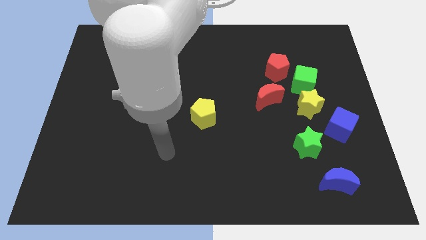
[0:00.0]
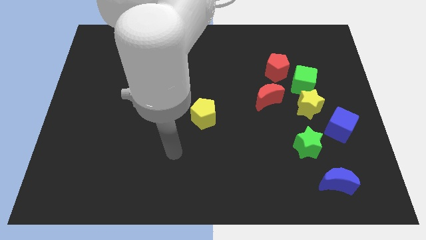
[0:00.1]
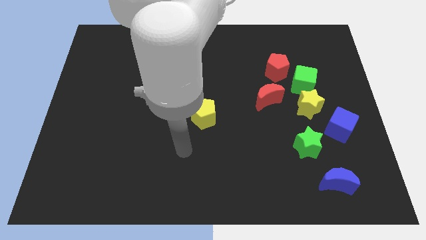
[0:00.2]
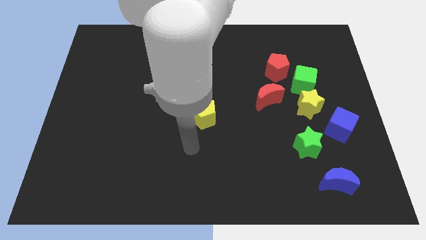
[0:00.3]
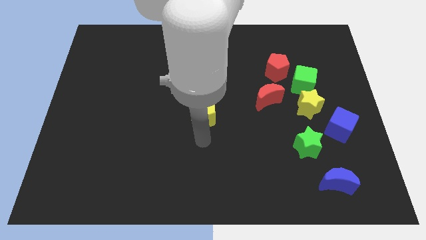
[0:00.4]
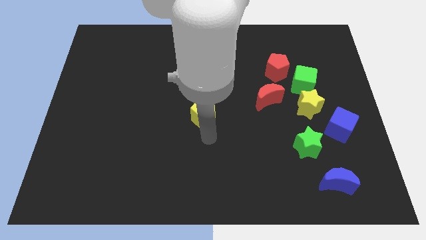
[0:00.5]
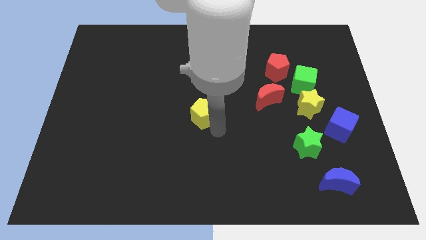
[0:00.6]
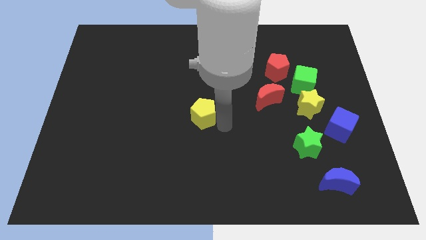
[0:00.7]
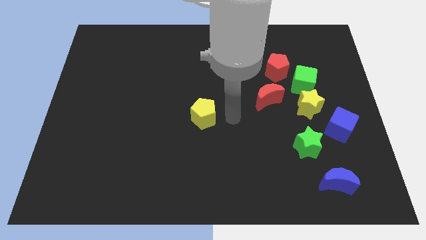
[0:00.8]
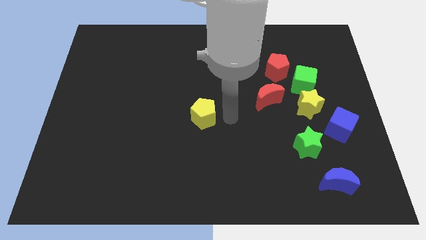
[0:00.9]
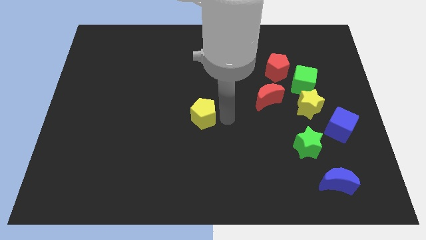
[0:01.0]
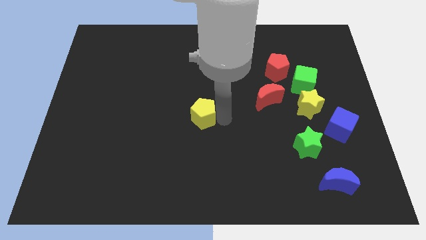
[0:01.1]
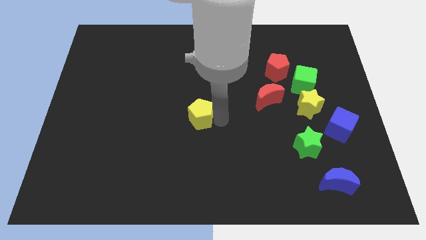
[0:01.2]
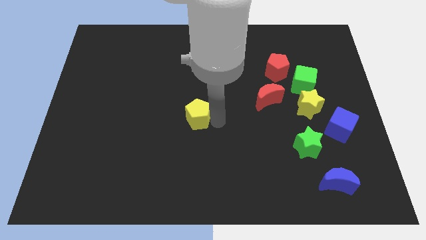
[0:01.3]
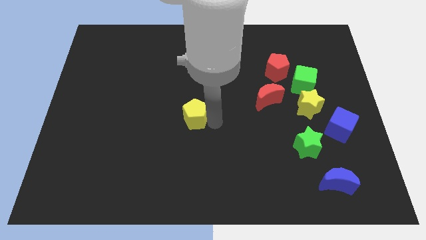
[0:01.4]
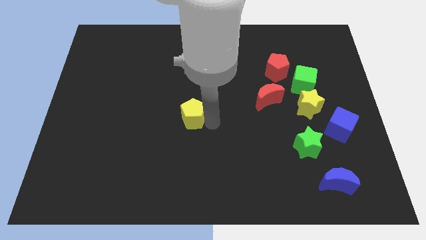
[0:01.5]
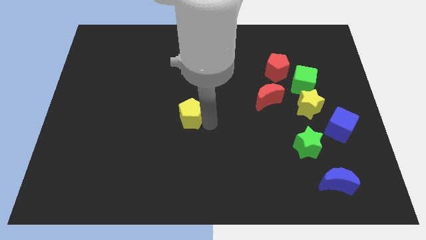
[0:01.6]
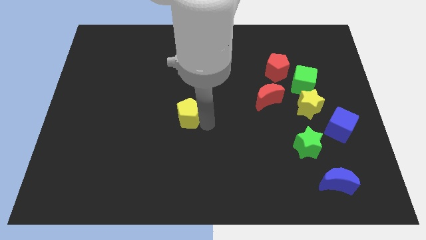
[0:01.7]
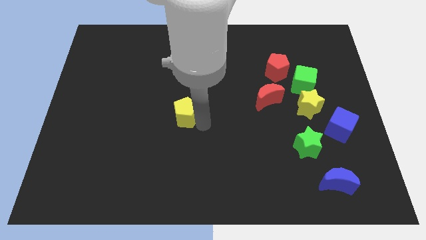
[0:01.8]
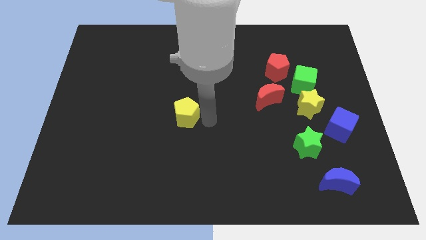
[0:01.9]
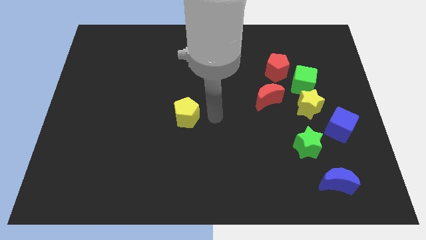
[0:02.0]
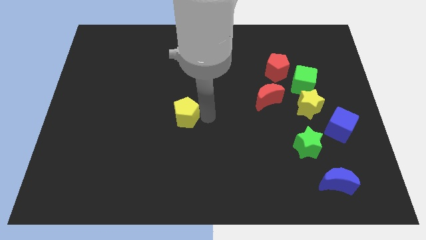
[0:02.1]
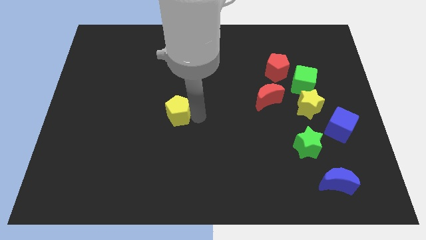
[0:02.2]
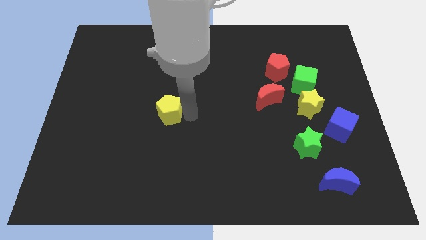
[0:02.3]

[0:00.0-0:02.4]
move the yellow pentagon a little to the left

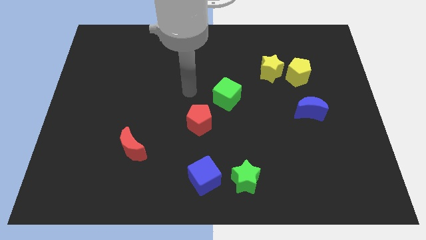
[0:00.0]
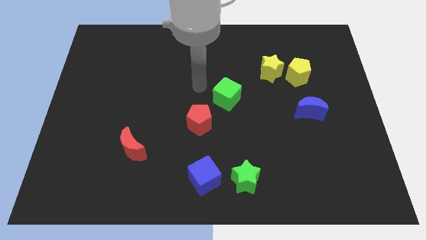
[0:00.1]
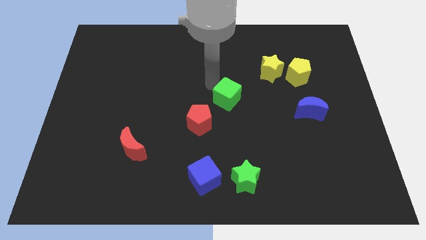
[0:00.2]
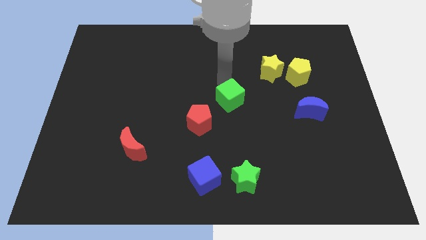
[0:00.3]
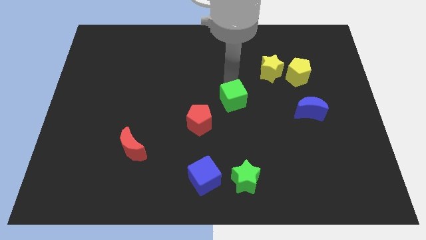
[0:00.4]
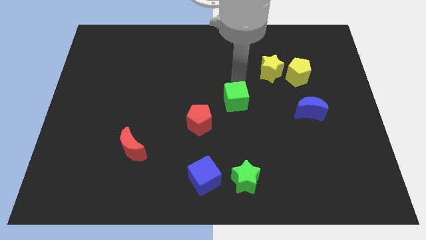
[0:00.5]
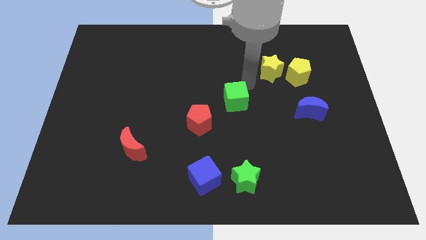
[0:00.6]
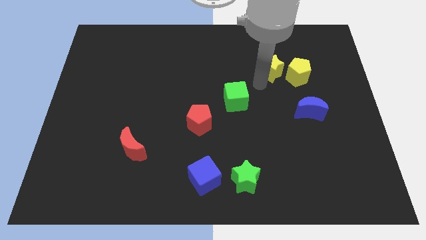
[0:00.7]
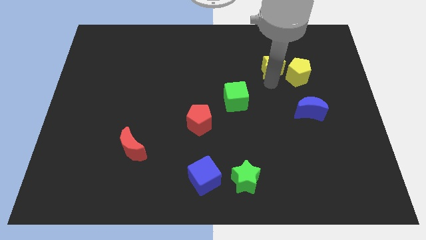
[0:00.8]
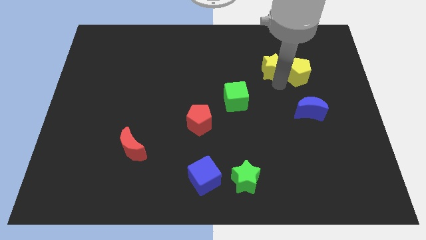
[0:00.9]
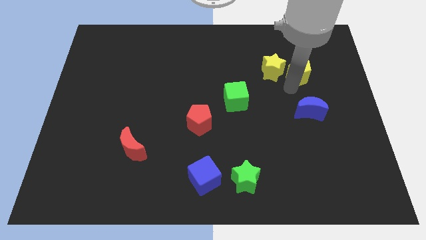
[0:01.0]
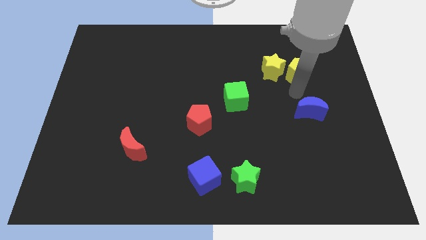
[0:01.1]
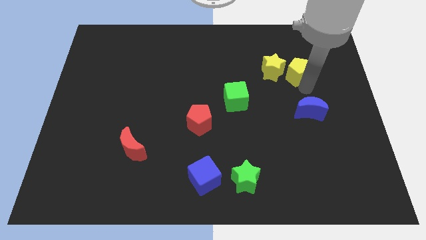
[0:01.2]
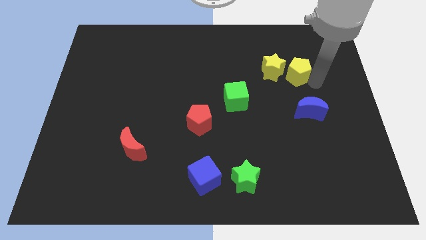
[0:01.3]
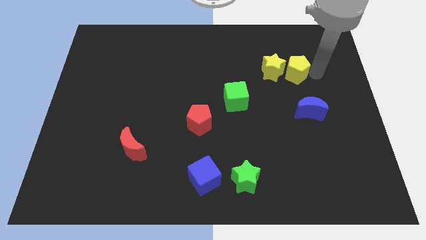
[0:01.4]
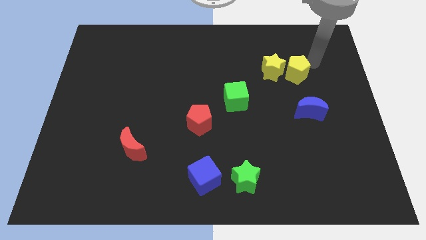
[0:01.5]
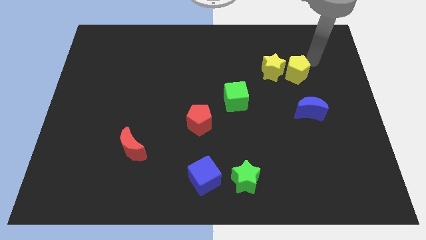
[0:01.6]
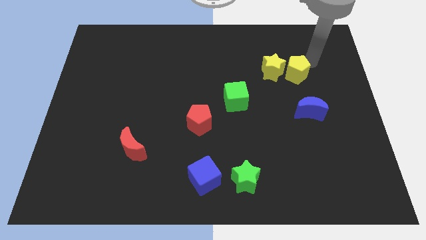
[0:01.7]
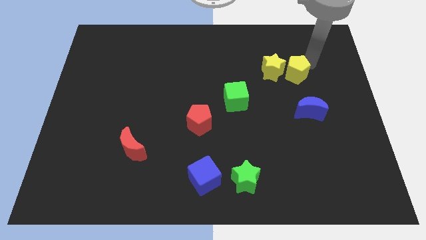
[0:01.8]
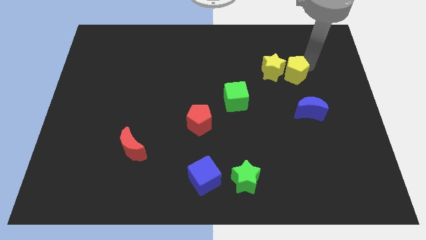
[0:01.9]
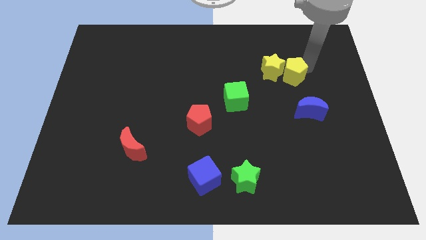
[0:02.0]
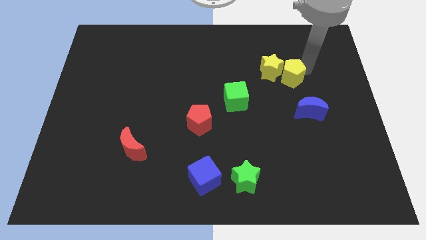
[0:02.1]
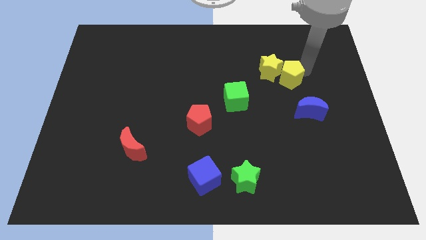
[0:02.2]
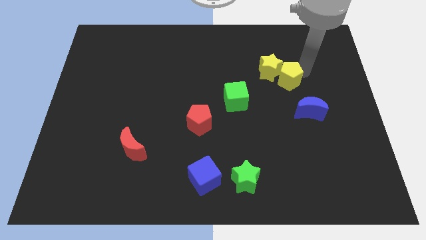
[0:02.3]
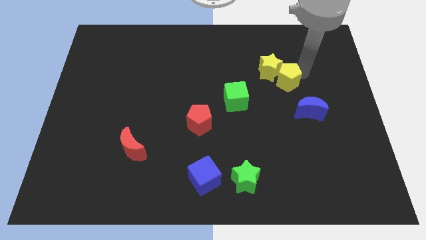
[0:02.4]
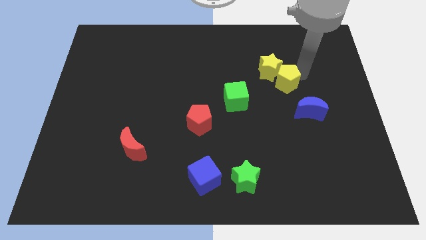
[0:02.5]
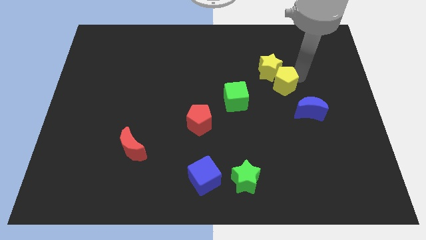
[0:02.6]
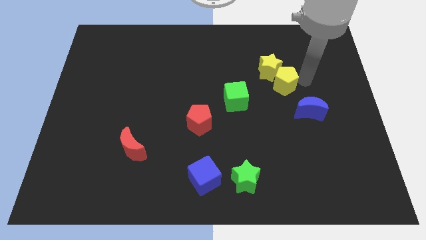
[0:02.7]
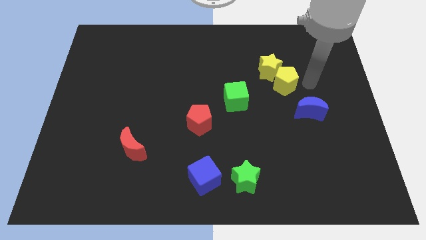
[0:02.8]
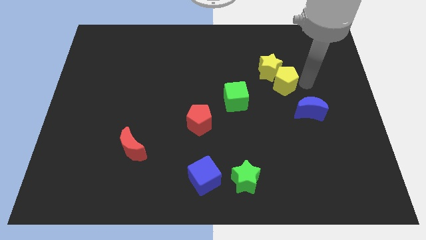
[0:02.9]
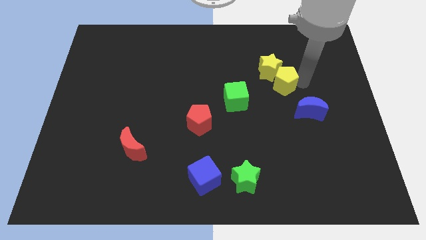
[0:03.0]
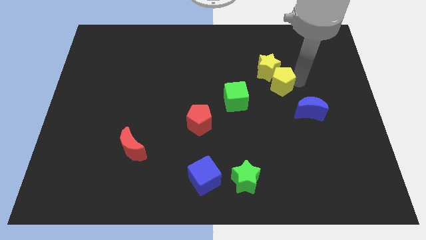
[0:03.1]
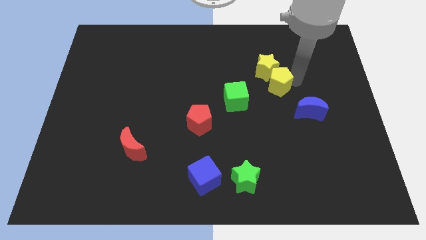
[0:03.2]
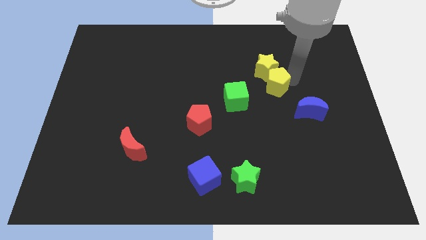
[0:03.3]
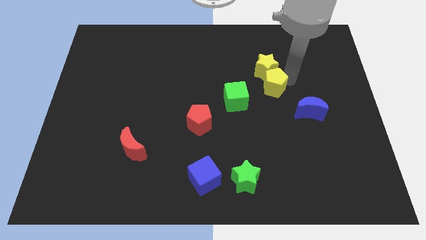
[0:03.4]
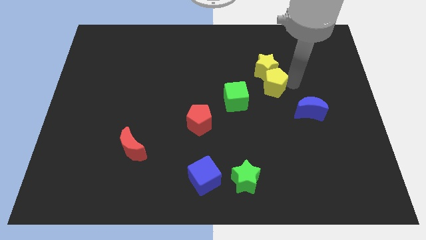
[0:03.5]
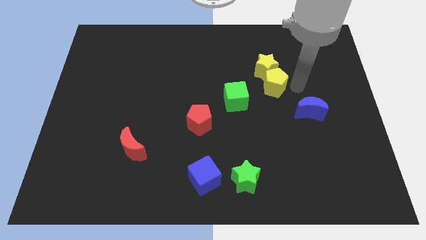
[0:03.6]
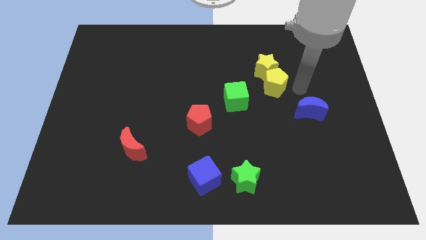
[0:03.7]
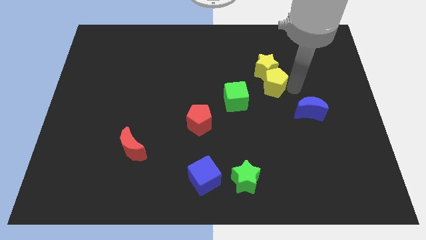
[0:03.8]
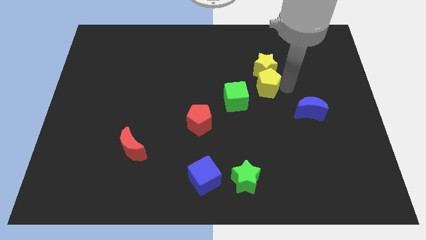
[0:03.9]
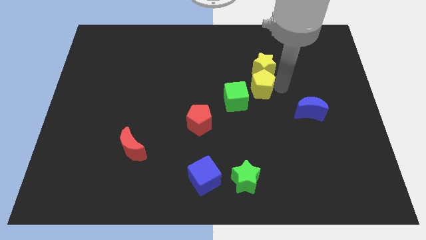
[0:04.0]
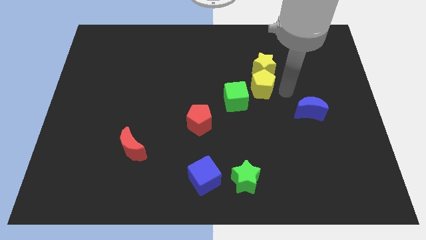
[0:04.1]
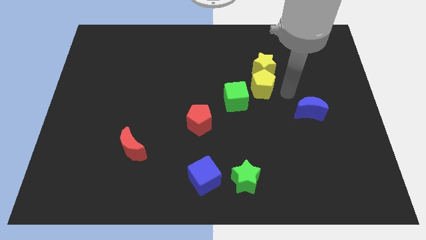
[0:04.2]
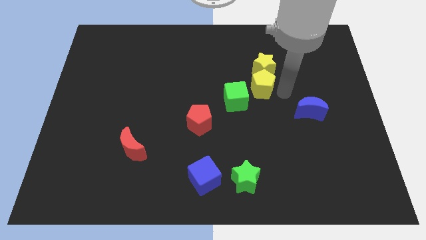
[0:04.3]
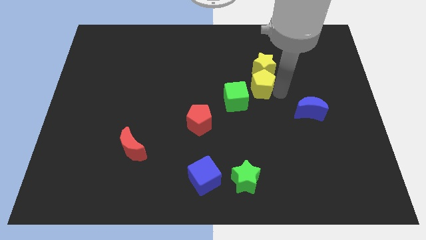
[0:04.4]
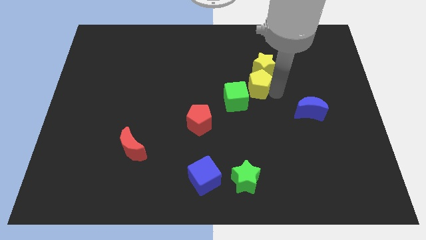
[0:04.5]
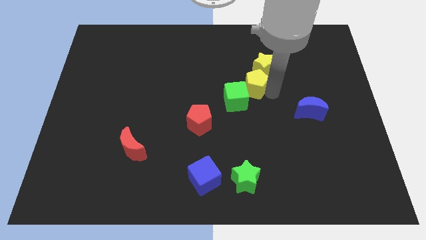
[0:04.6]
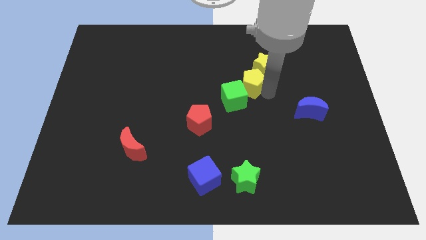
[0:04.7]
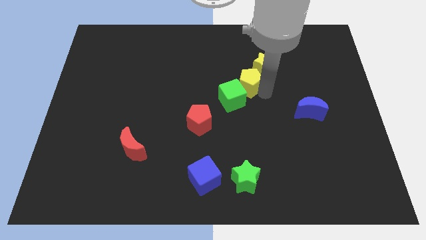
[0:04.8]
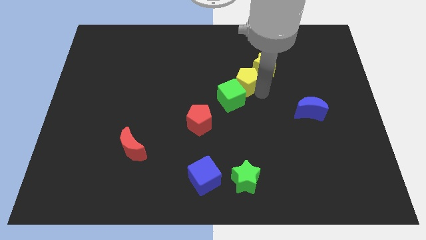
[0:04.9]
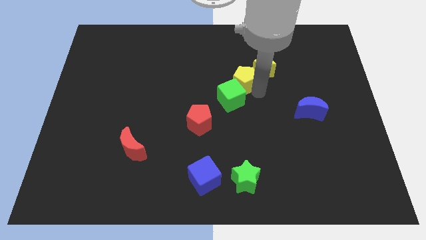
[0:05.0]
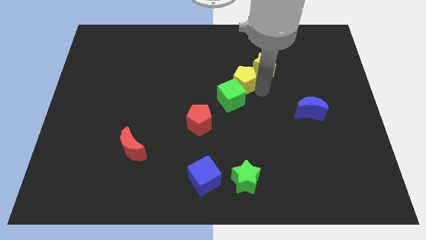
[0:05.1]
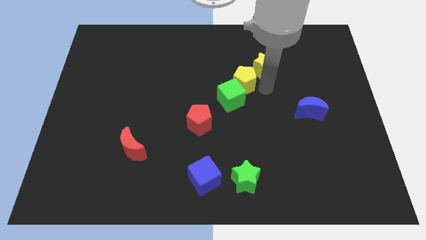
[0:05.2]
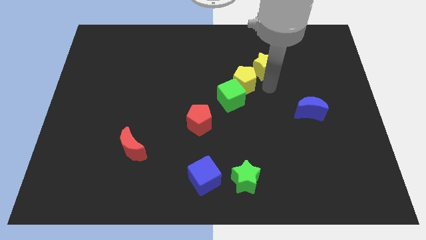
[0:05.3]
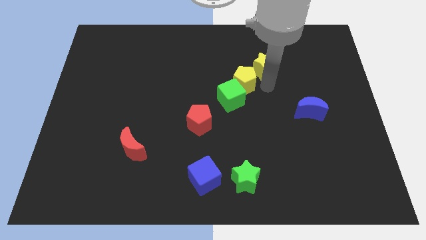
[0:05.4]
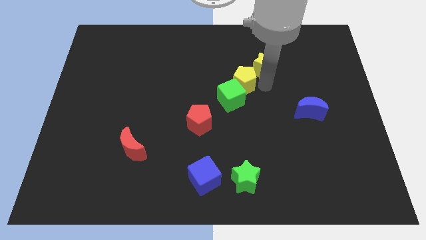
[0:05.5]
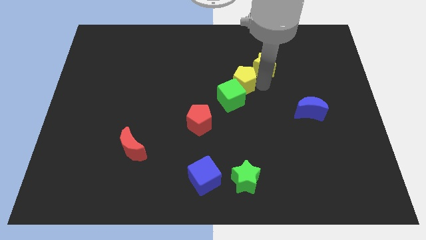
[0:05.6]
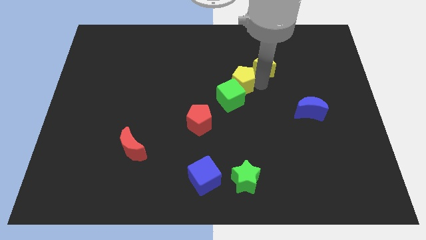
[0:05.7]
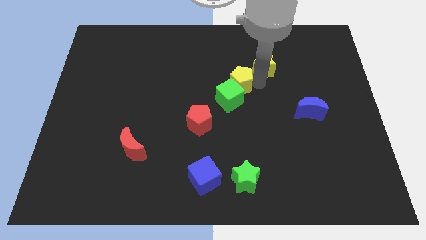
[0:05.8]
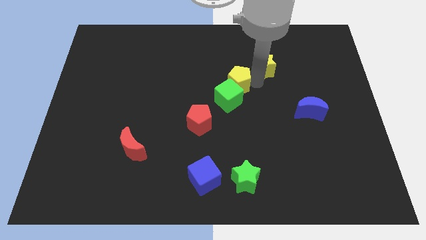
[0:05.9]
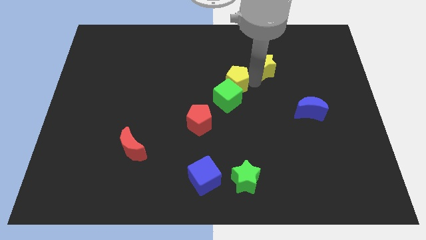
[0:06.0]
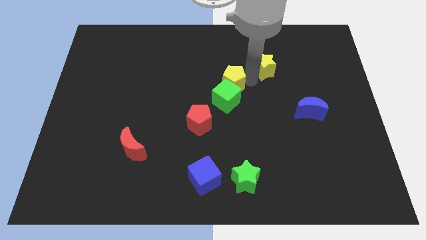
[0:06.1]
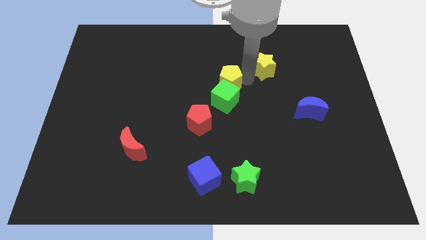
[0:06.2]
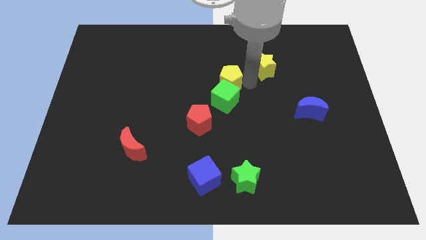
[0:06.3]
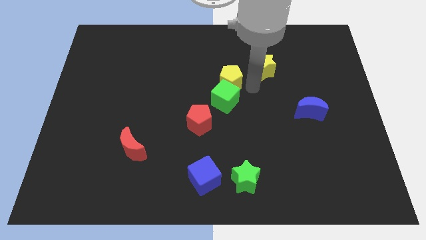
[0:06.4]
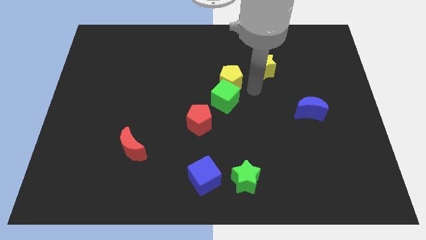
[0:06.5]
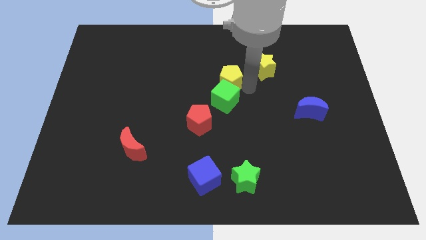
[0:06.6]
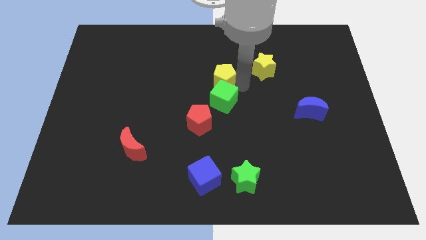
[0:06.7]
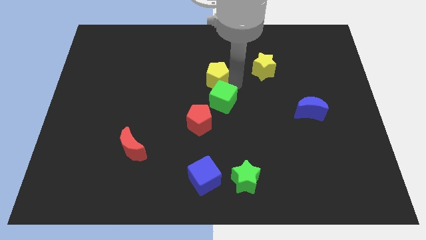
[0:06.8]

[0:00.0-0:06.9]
move the yellow pentagon to the left
